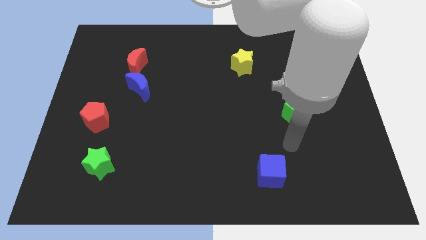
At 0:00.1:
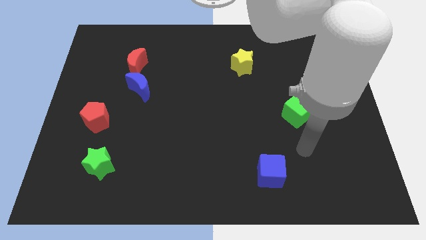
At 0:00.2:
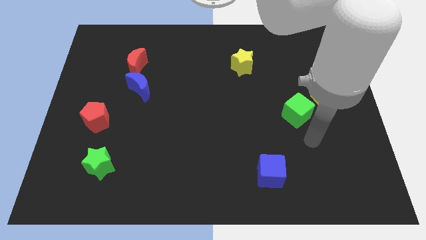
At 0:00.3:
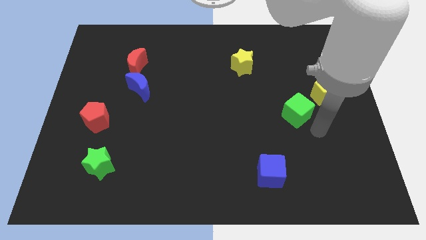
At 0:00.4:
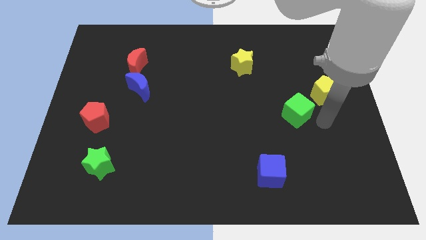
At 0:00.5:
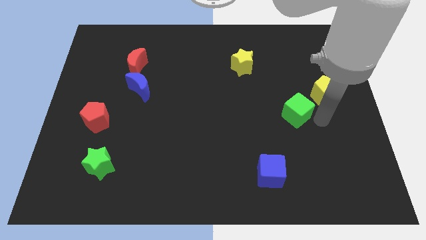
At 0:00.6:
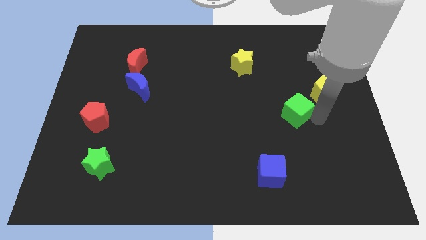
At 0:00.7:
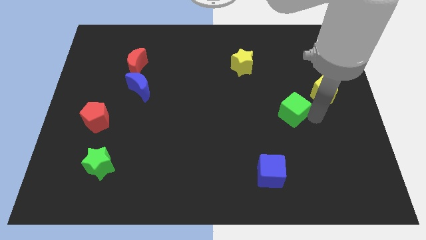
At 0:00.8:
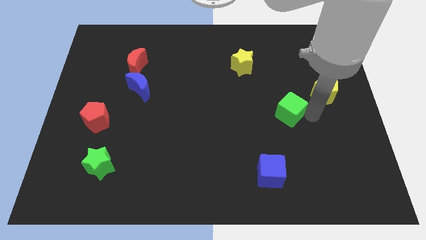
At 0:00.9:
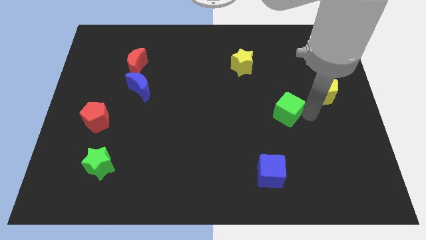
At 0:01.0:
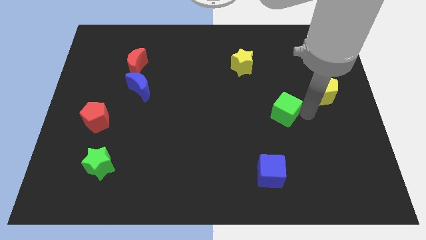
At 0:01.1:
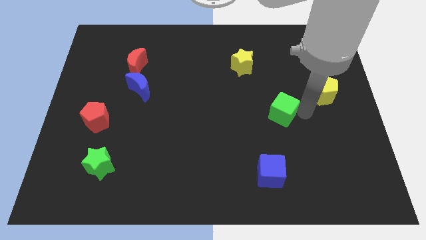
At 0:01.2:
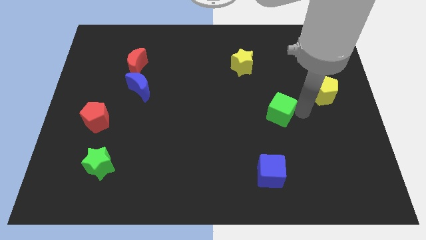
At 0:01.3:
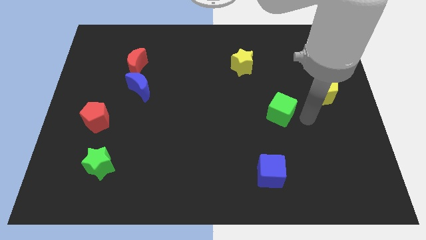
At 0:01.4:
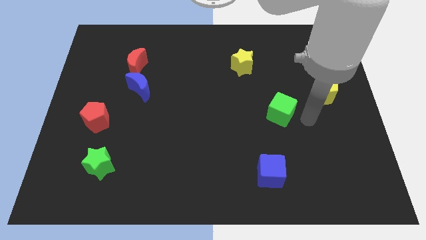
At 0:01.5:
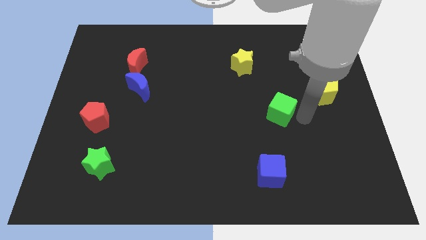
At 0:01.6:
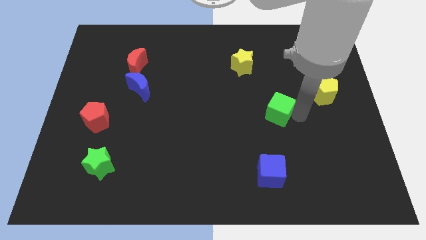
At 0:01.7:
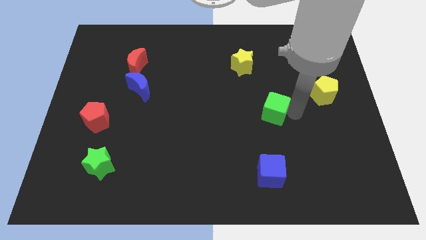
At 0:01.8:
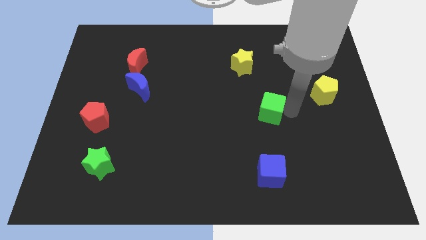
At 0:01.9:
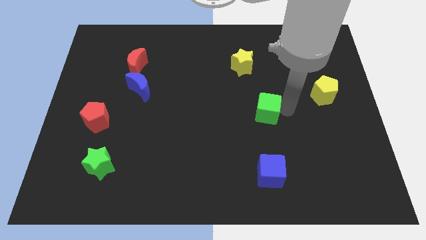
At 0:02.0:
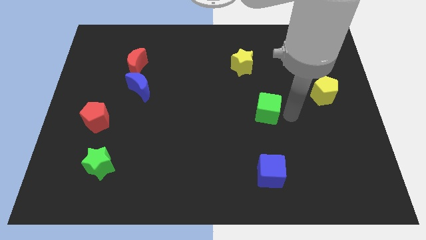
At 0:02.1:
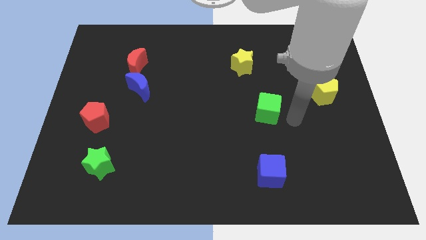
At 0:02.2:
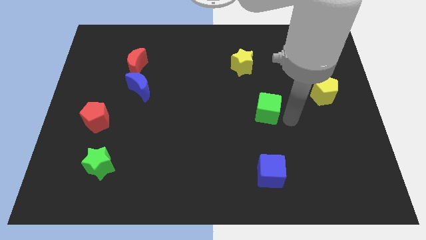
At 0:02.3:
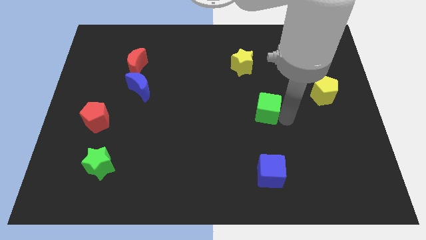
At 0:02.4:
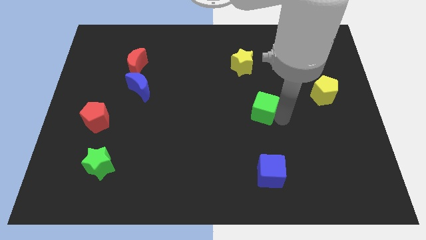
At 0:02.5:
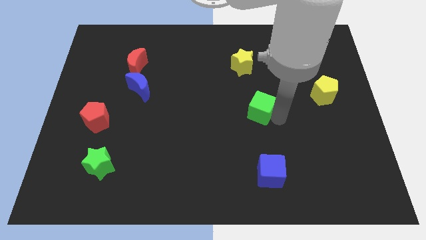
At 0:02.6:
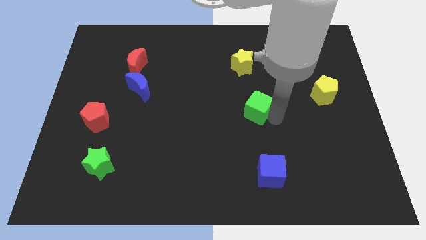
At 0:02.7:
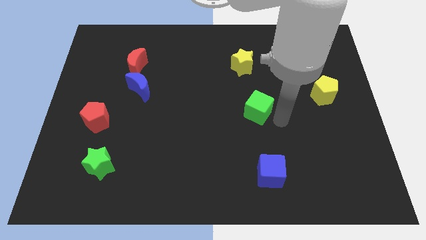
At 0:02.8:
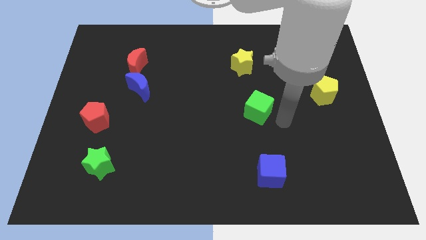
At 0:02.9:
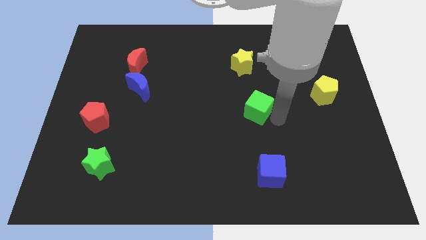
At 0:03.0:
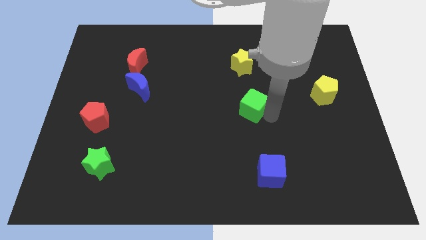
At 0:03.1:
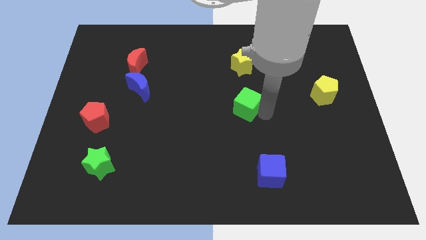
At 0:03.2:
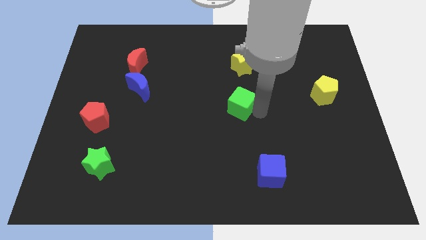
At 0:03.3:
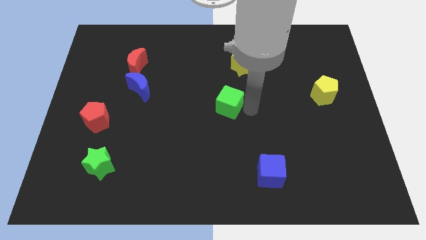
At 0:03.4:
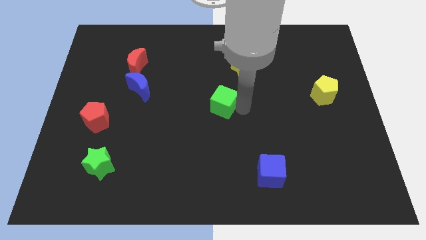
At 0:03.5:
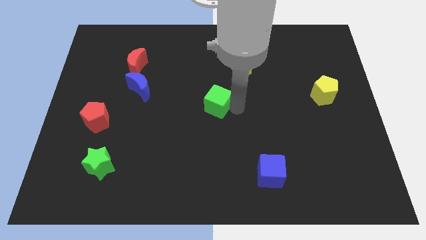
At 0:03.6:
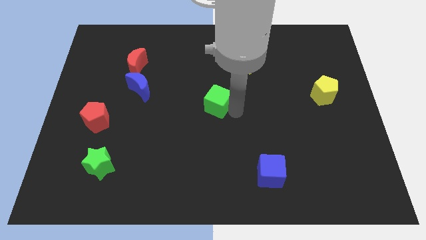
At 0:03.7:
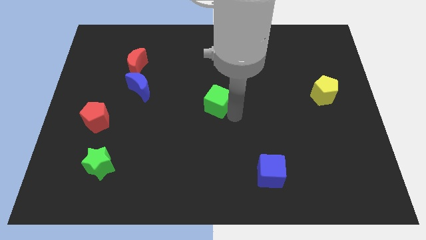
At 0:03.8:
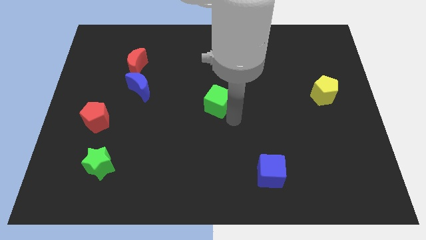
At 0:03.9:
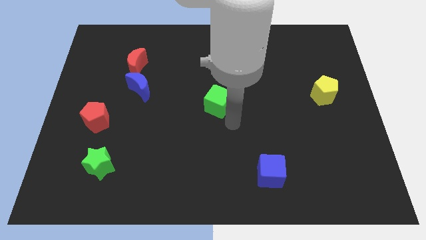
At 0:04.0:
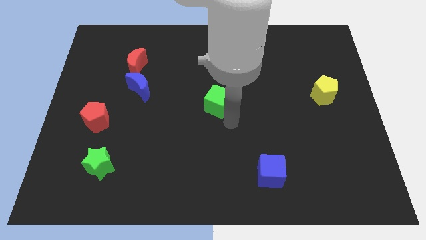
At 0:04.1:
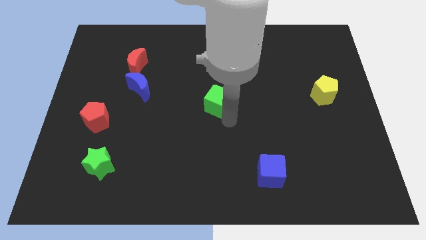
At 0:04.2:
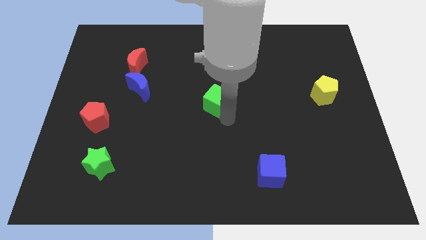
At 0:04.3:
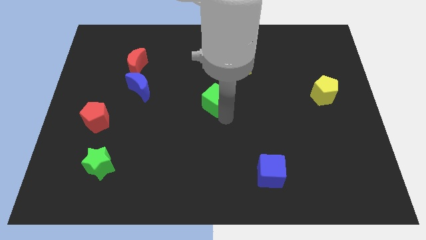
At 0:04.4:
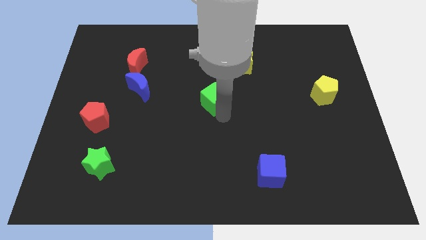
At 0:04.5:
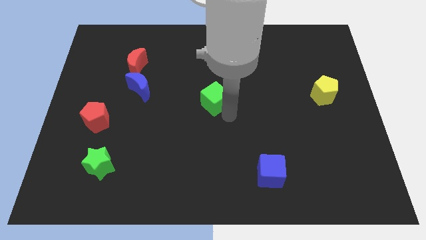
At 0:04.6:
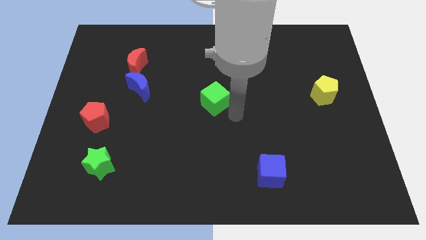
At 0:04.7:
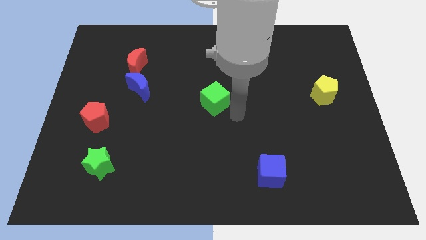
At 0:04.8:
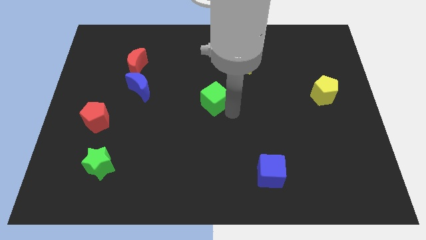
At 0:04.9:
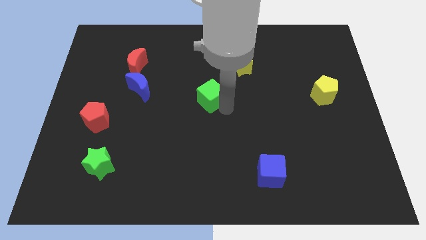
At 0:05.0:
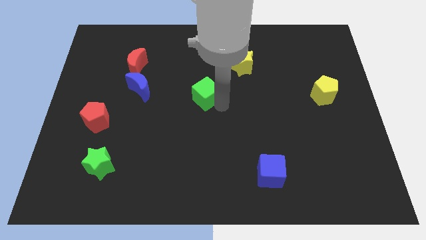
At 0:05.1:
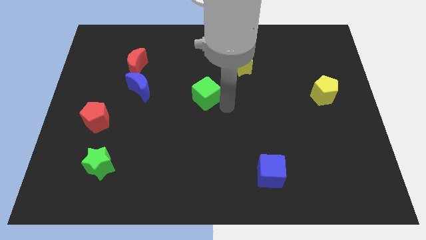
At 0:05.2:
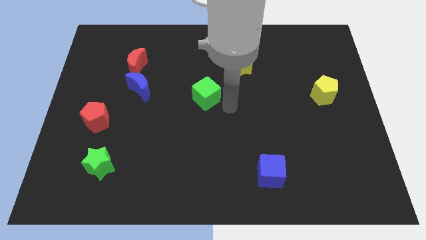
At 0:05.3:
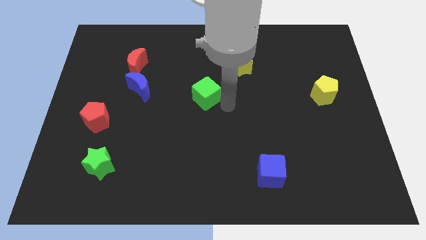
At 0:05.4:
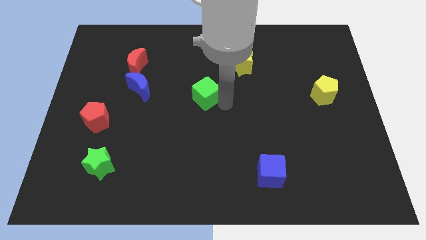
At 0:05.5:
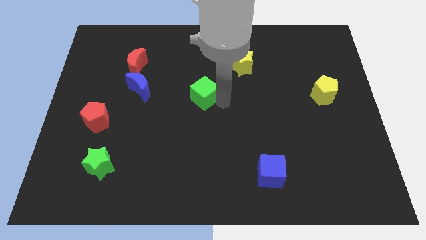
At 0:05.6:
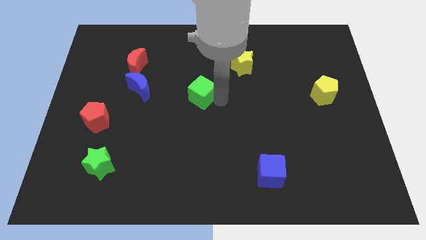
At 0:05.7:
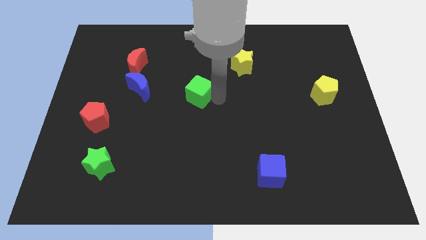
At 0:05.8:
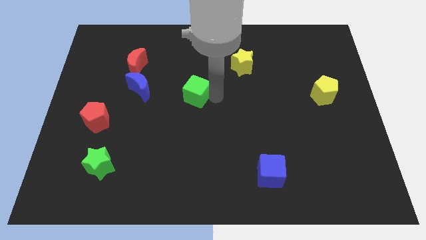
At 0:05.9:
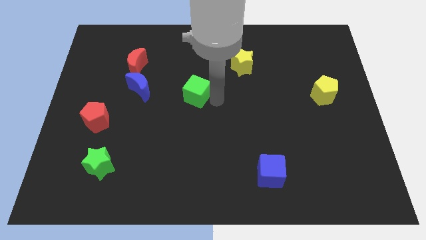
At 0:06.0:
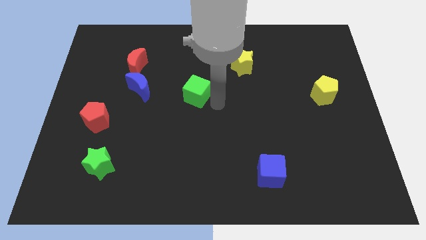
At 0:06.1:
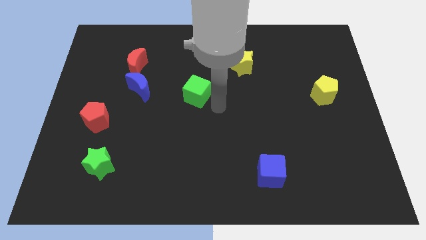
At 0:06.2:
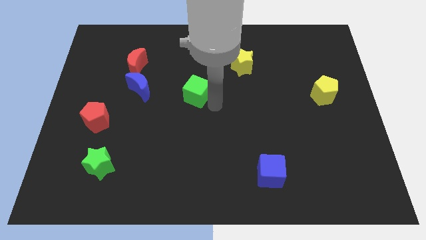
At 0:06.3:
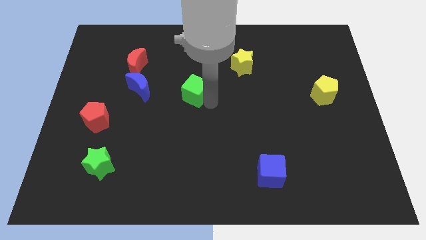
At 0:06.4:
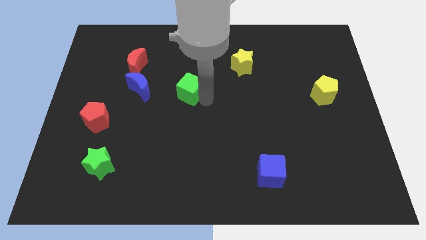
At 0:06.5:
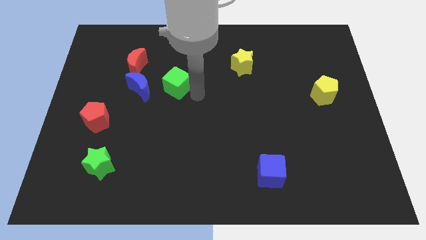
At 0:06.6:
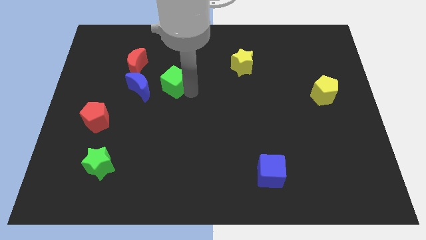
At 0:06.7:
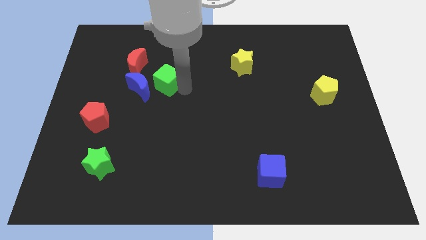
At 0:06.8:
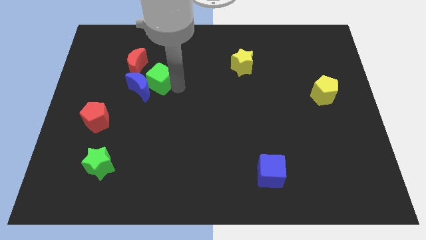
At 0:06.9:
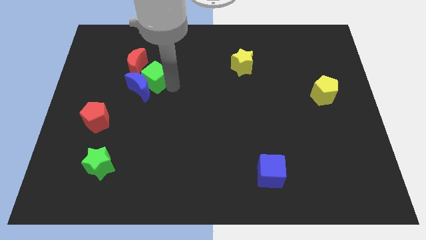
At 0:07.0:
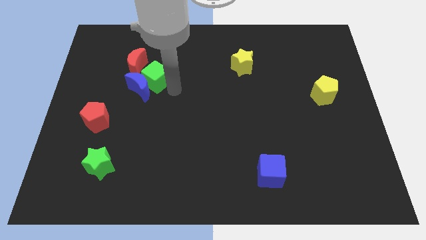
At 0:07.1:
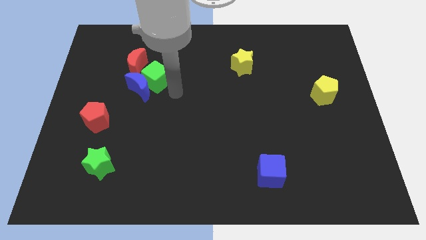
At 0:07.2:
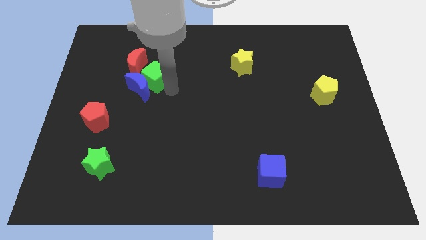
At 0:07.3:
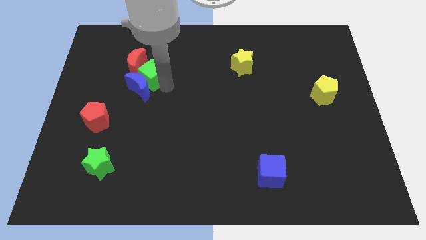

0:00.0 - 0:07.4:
push the green cube close to the red moon

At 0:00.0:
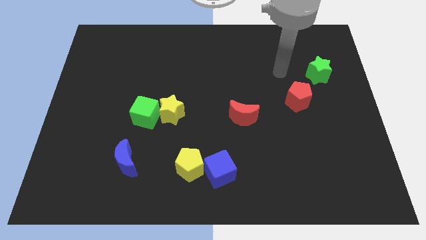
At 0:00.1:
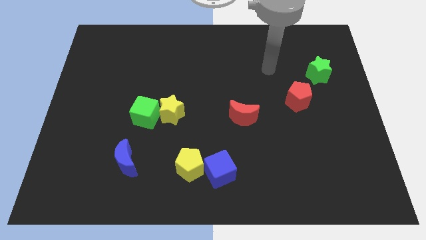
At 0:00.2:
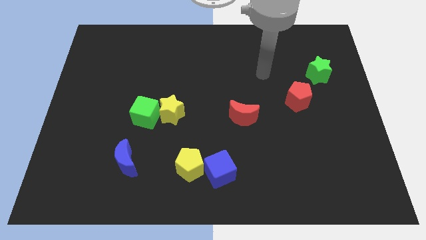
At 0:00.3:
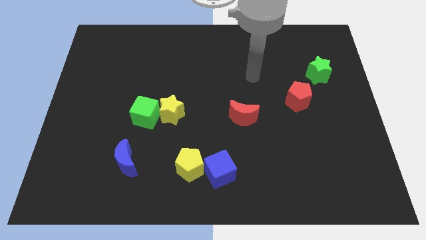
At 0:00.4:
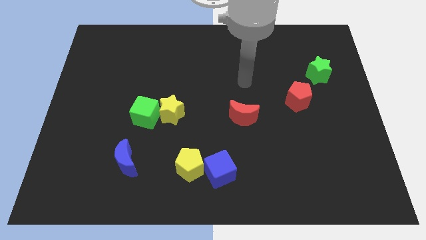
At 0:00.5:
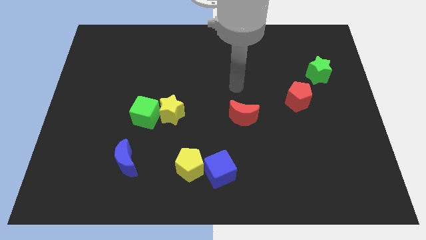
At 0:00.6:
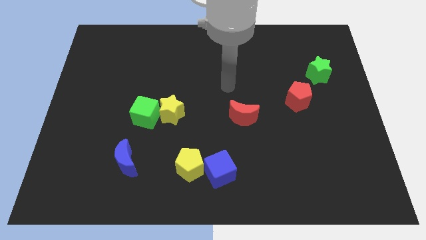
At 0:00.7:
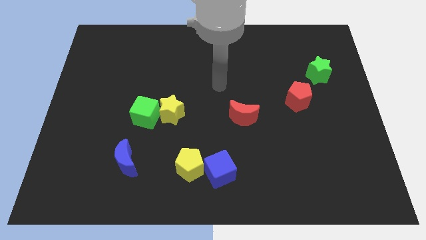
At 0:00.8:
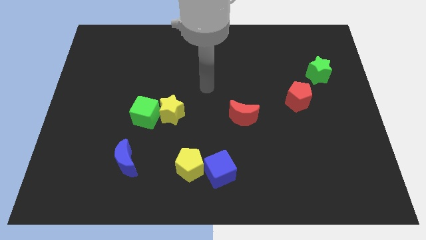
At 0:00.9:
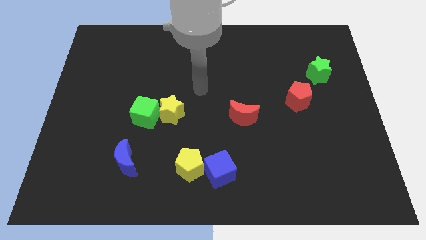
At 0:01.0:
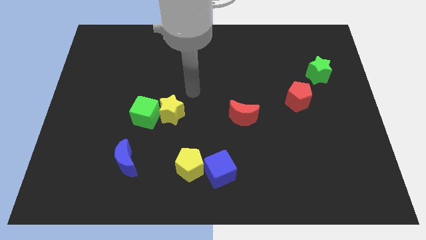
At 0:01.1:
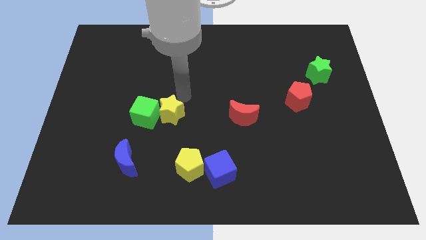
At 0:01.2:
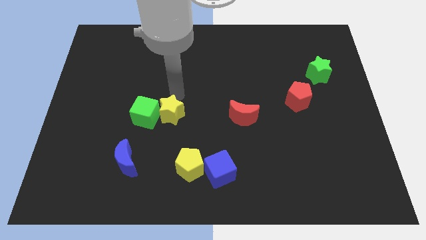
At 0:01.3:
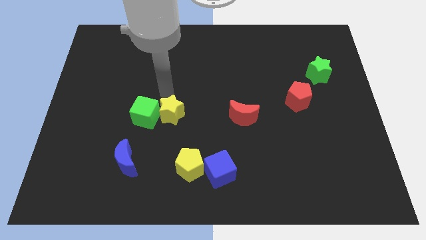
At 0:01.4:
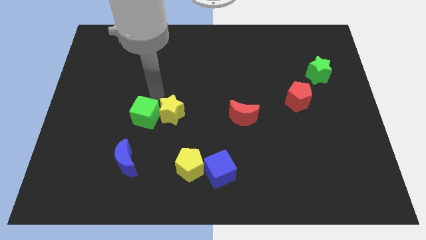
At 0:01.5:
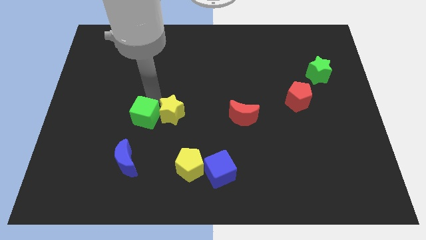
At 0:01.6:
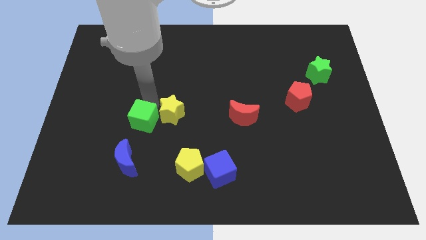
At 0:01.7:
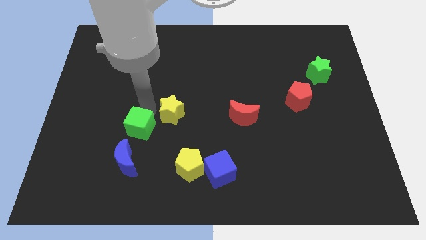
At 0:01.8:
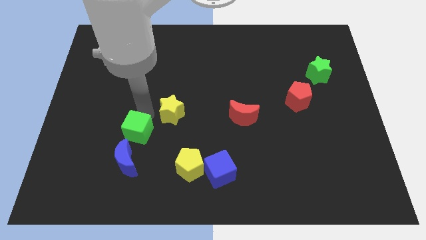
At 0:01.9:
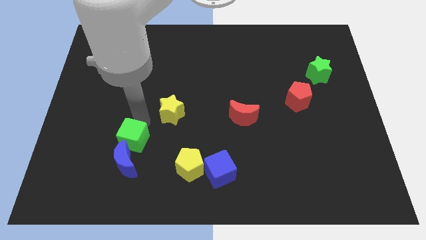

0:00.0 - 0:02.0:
put the green cube towards the blue moon
